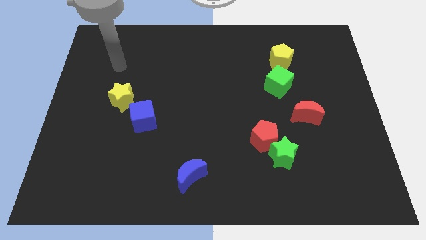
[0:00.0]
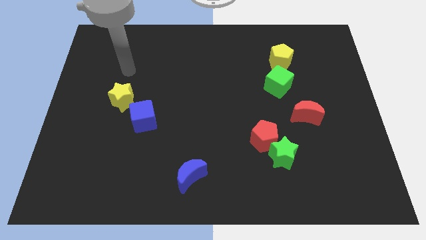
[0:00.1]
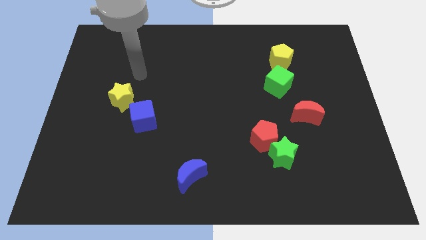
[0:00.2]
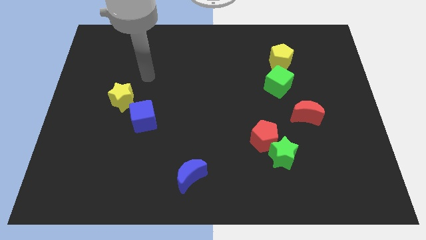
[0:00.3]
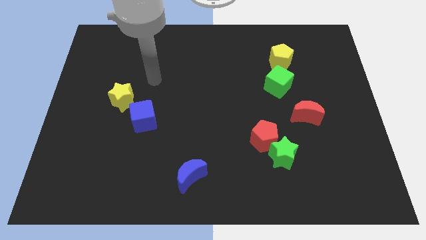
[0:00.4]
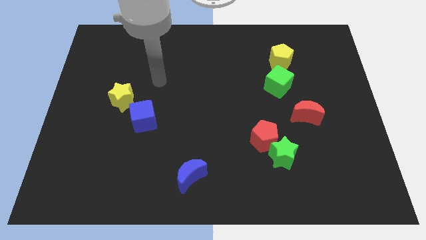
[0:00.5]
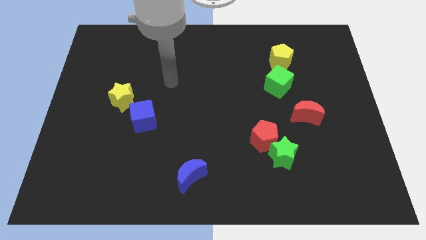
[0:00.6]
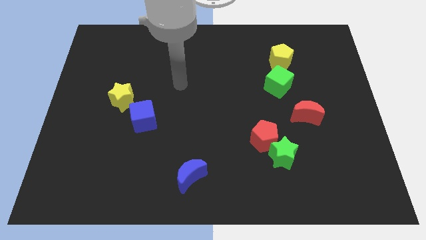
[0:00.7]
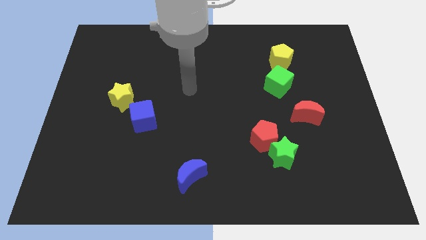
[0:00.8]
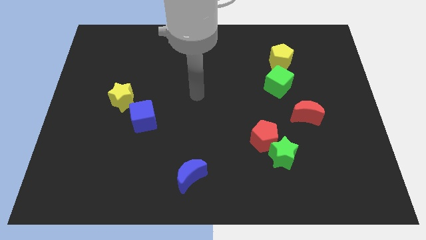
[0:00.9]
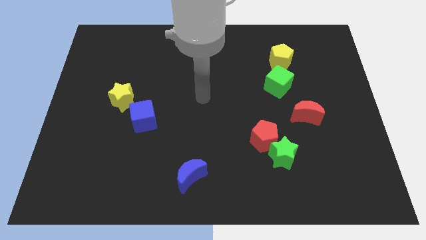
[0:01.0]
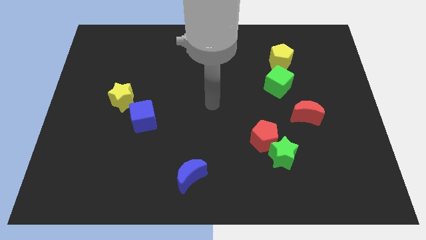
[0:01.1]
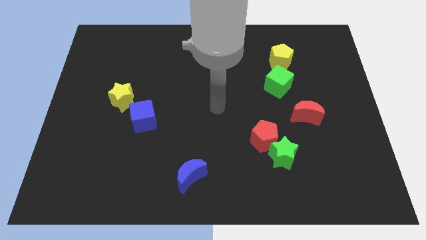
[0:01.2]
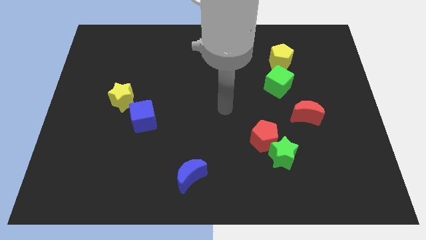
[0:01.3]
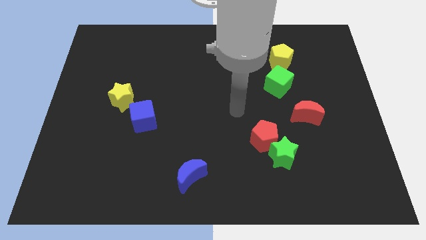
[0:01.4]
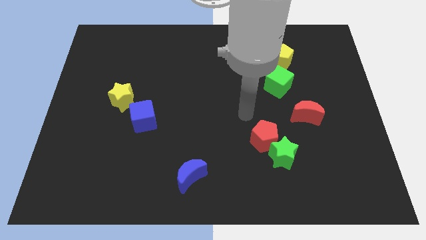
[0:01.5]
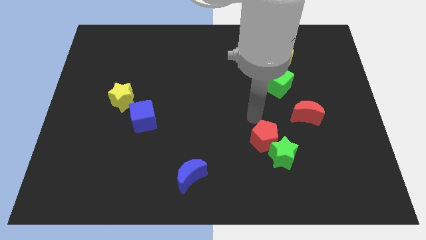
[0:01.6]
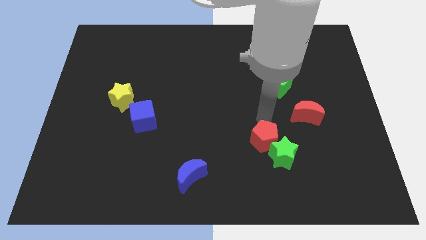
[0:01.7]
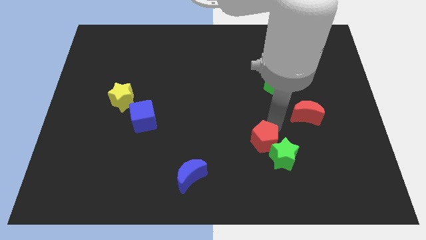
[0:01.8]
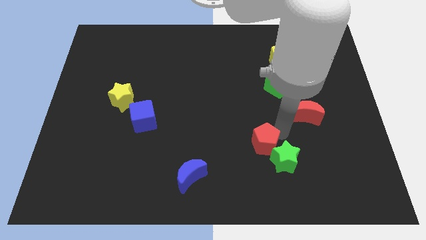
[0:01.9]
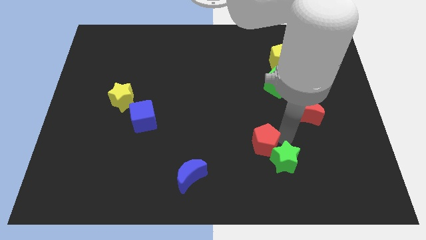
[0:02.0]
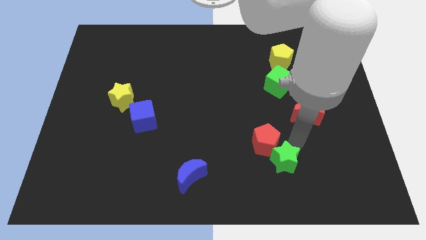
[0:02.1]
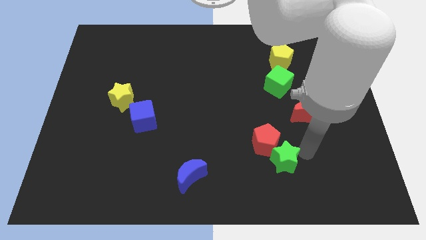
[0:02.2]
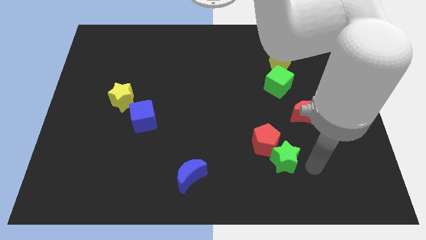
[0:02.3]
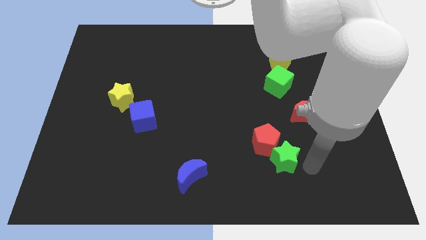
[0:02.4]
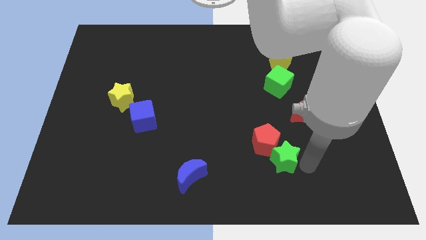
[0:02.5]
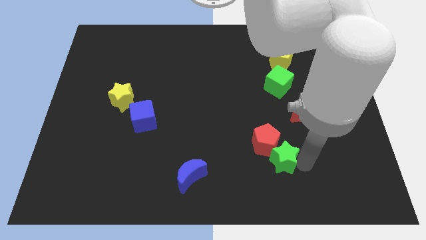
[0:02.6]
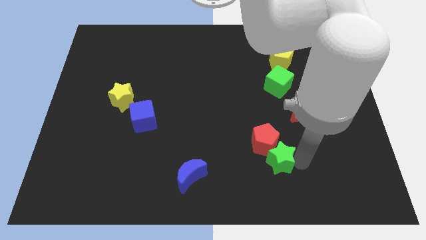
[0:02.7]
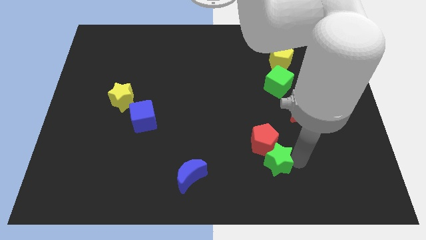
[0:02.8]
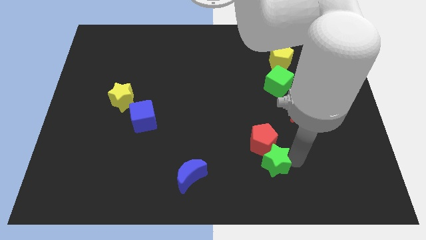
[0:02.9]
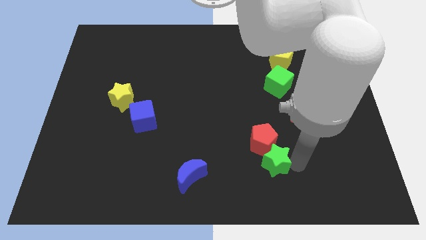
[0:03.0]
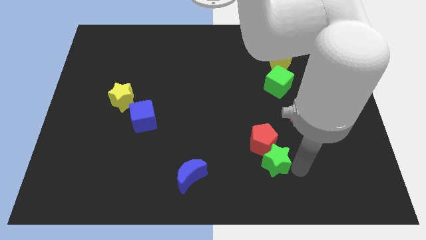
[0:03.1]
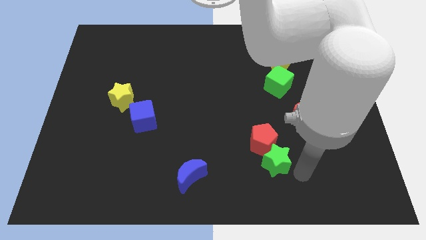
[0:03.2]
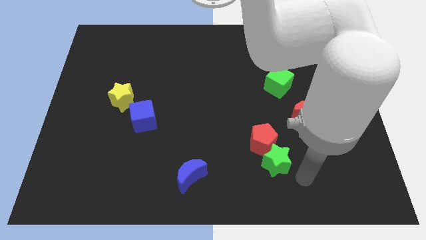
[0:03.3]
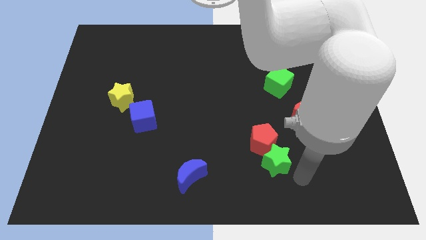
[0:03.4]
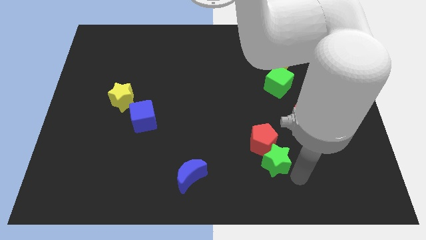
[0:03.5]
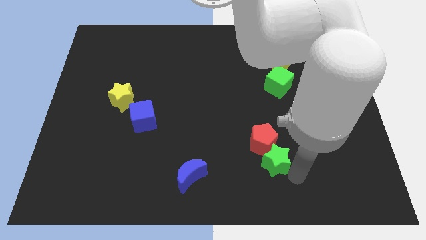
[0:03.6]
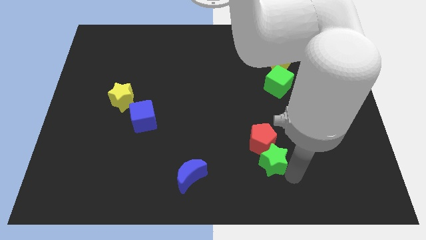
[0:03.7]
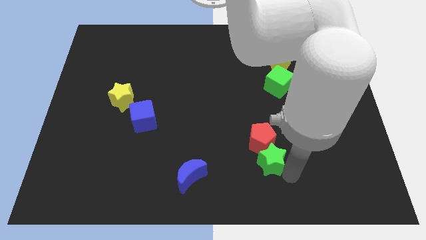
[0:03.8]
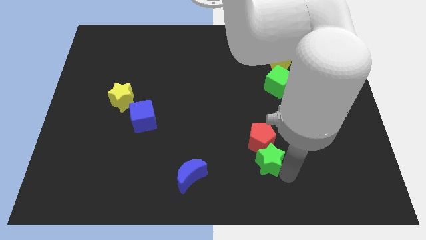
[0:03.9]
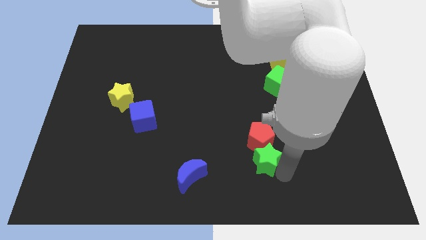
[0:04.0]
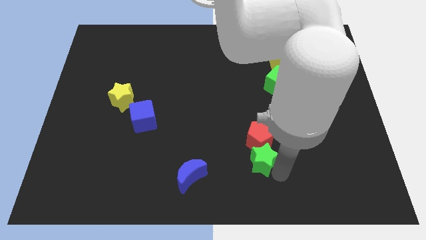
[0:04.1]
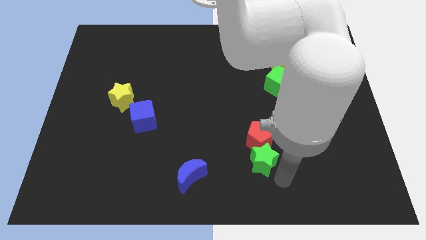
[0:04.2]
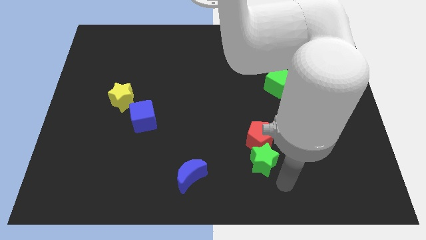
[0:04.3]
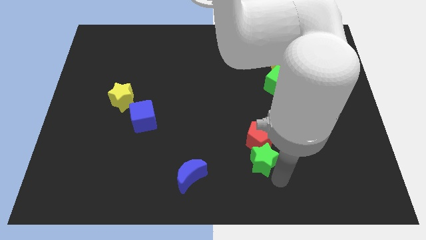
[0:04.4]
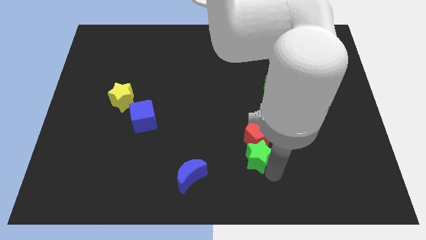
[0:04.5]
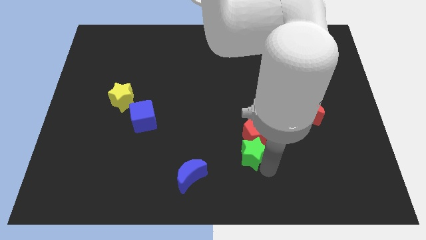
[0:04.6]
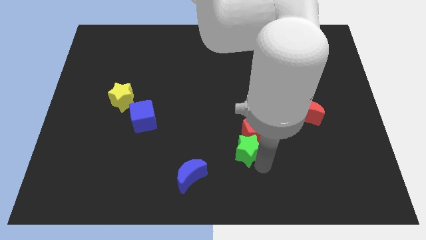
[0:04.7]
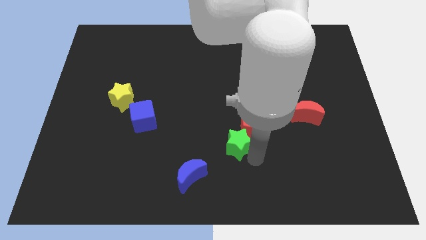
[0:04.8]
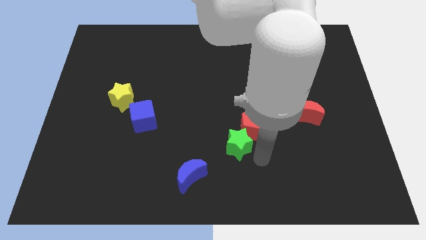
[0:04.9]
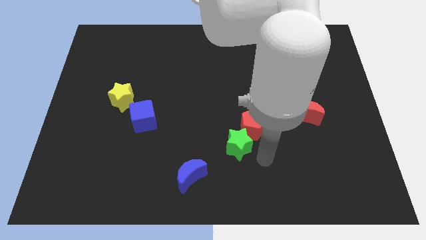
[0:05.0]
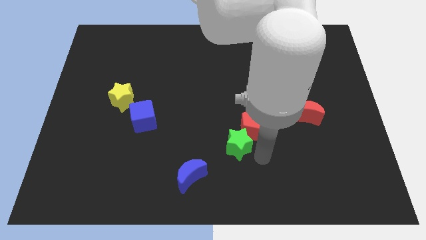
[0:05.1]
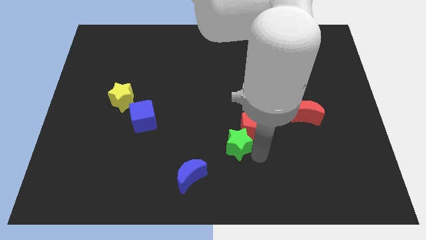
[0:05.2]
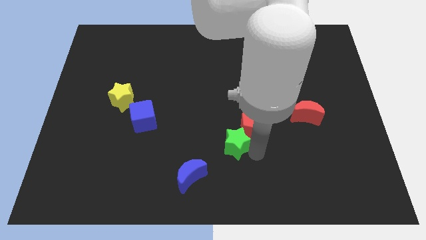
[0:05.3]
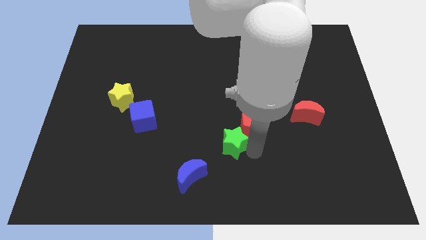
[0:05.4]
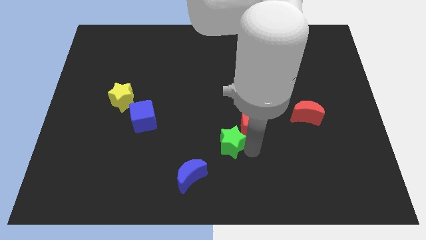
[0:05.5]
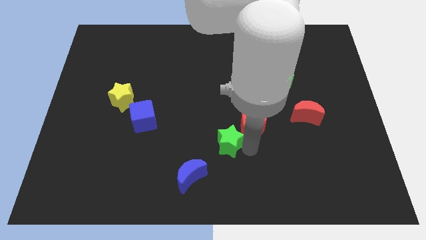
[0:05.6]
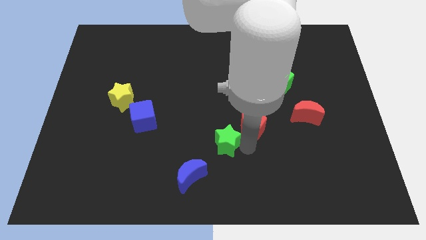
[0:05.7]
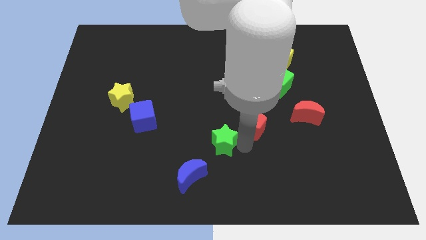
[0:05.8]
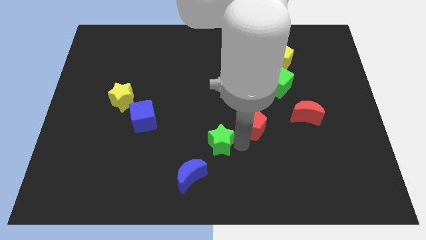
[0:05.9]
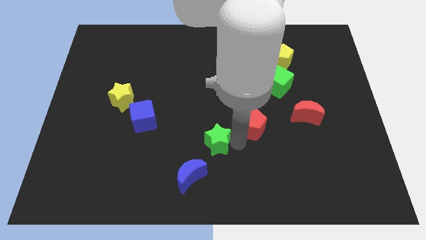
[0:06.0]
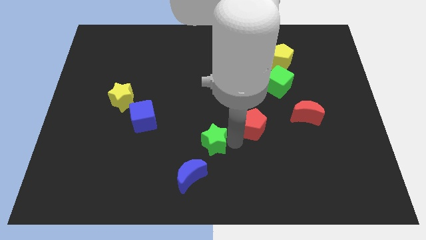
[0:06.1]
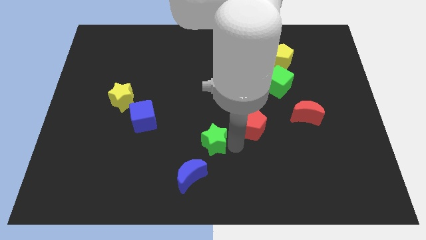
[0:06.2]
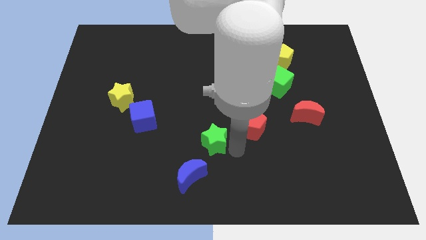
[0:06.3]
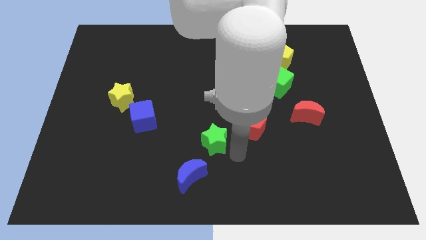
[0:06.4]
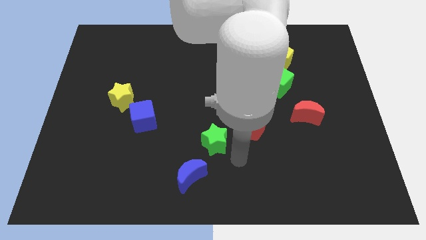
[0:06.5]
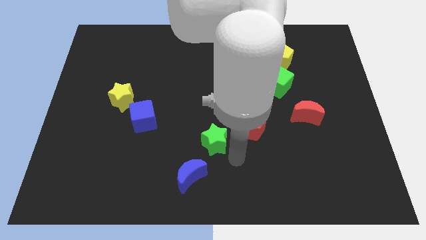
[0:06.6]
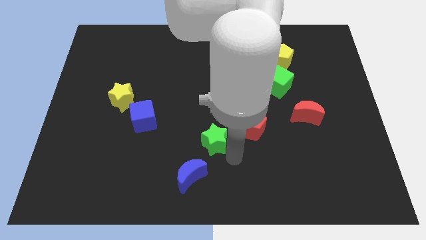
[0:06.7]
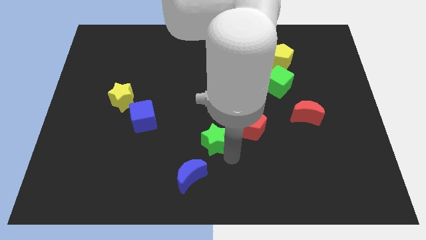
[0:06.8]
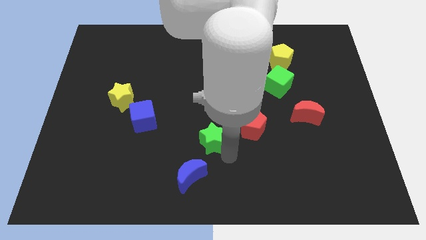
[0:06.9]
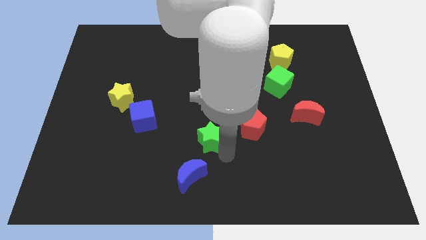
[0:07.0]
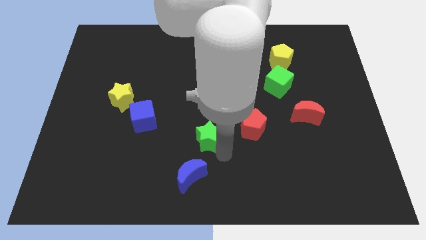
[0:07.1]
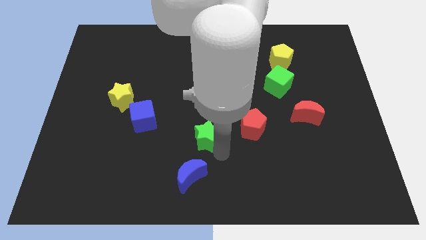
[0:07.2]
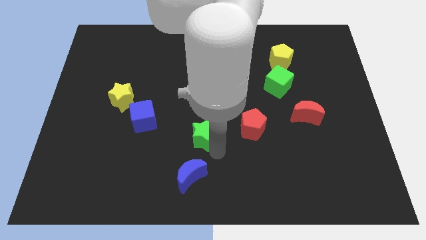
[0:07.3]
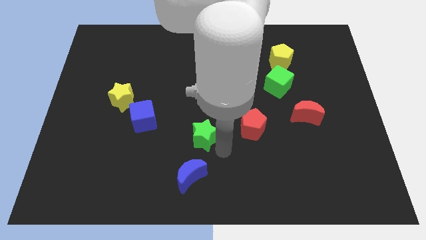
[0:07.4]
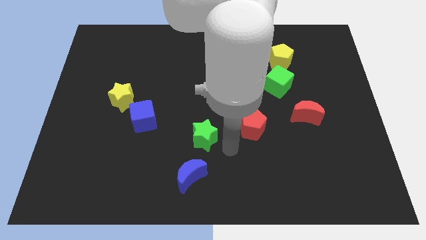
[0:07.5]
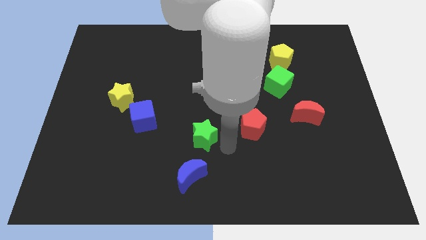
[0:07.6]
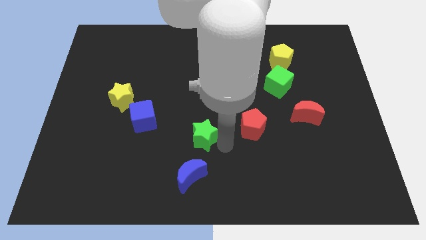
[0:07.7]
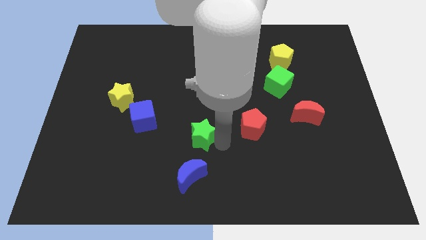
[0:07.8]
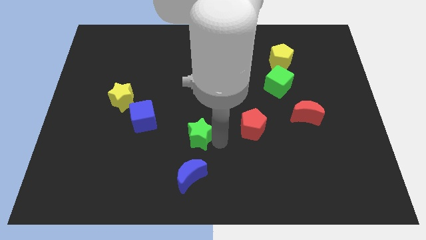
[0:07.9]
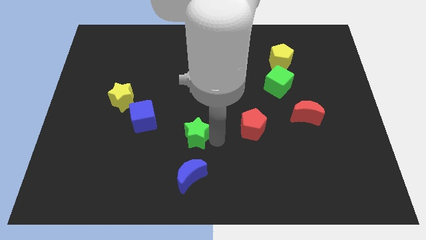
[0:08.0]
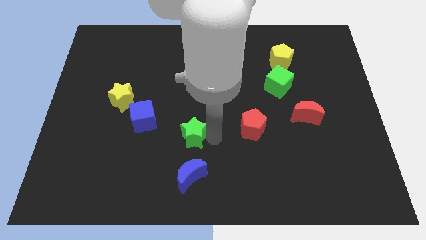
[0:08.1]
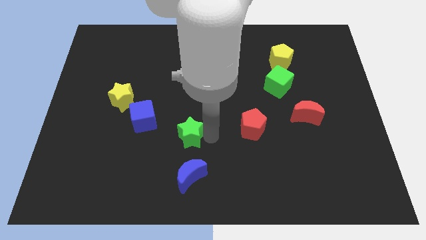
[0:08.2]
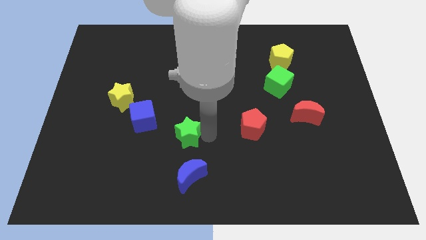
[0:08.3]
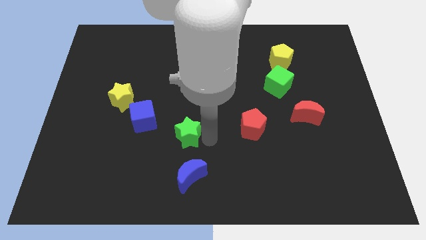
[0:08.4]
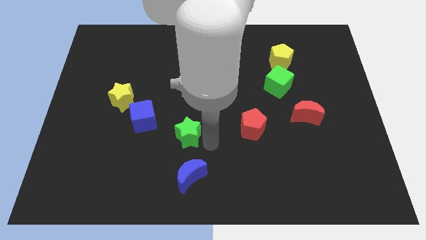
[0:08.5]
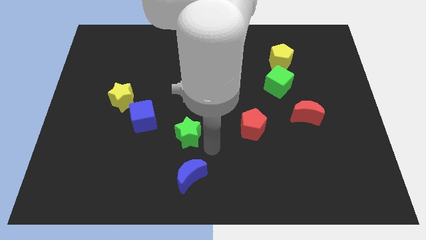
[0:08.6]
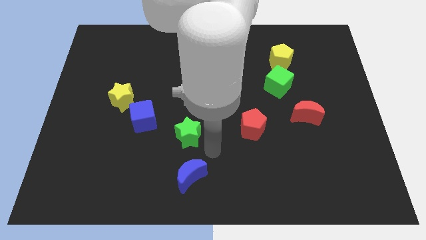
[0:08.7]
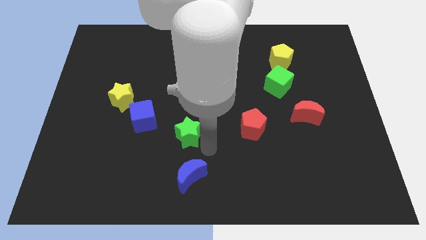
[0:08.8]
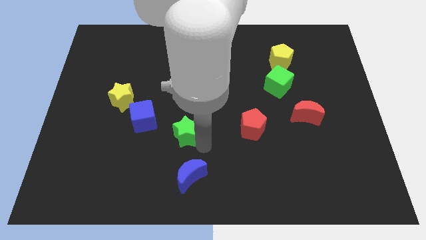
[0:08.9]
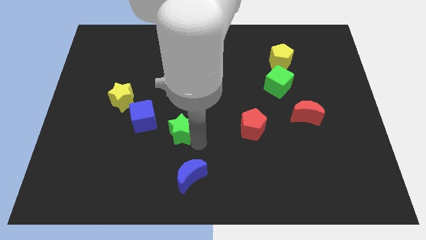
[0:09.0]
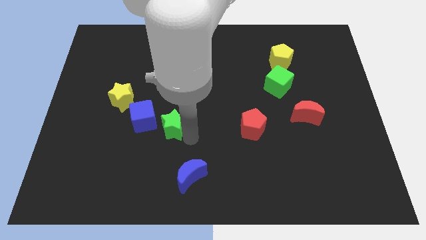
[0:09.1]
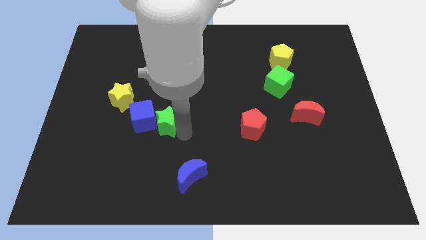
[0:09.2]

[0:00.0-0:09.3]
push the green star towards the blue cube
